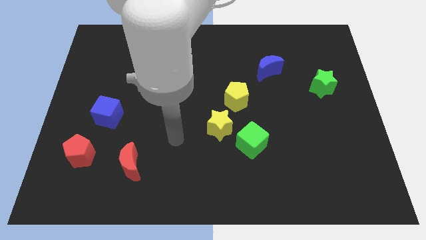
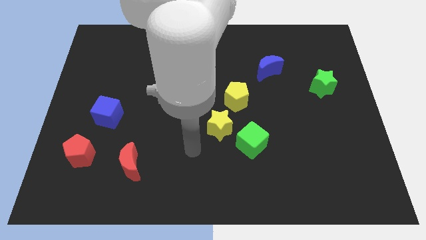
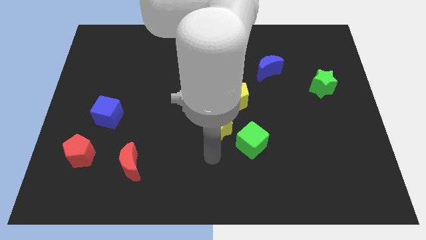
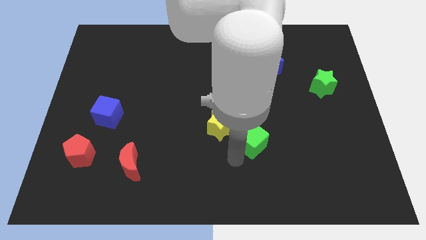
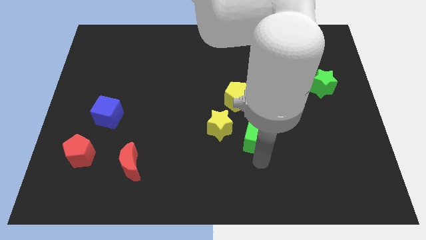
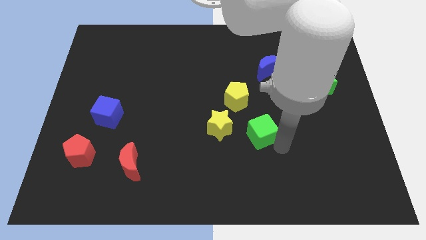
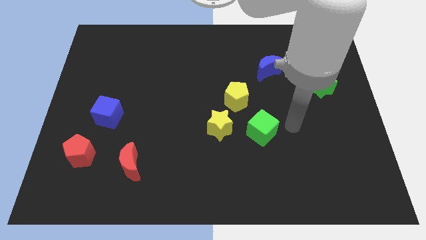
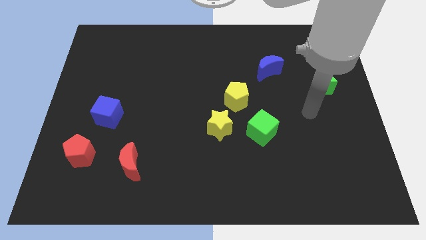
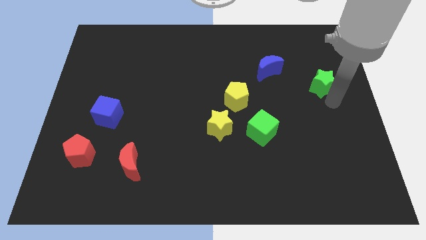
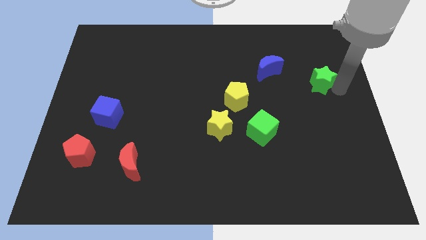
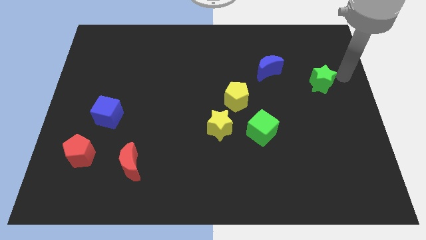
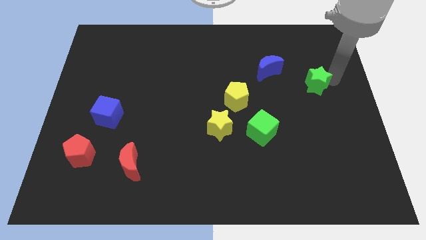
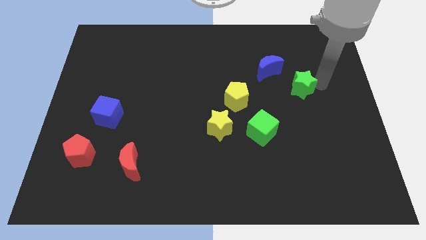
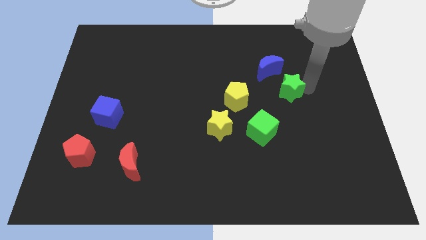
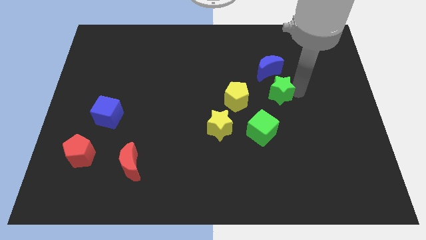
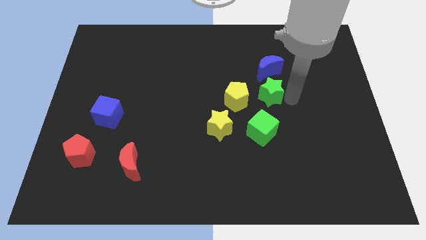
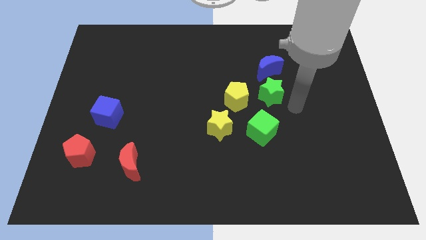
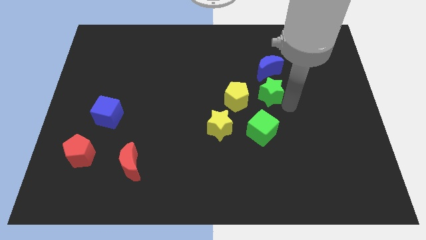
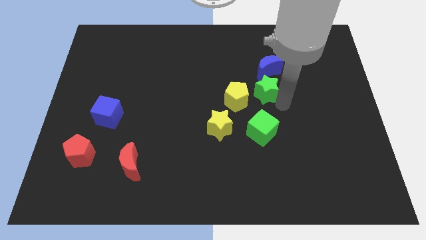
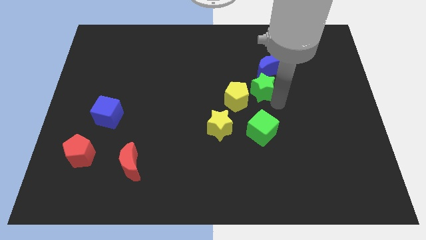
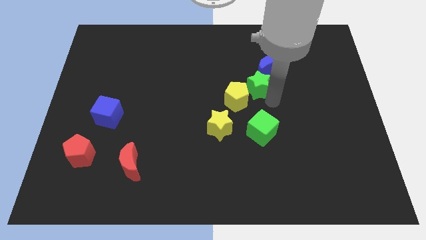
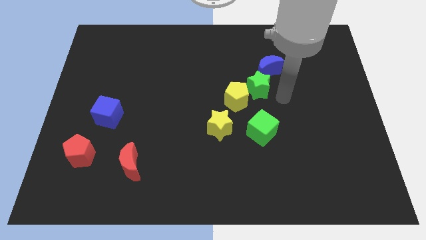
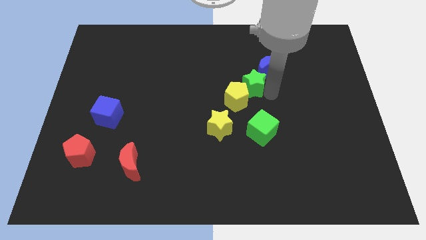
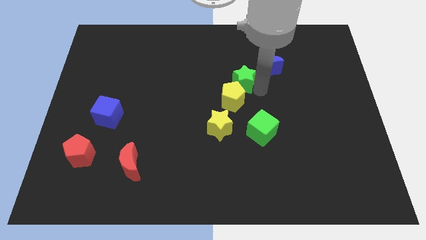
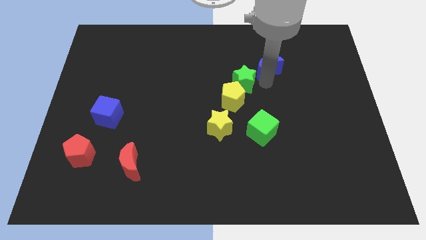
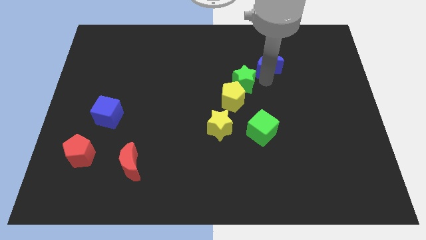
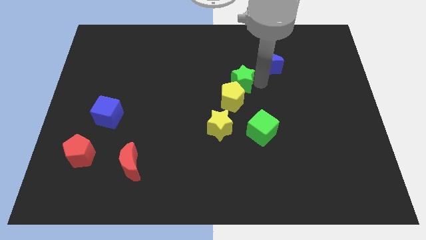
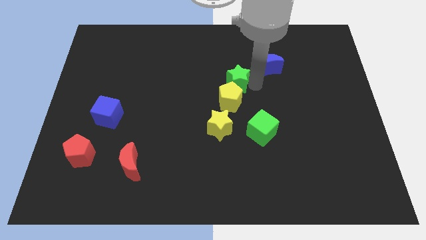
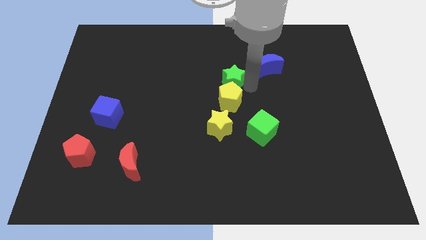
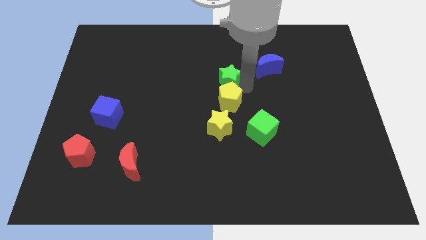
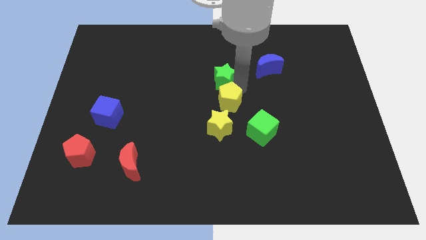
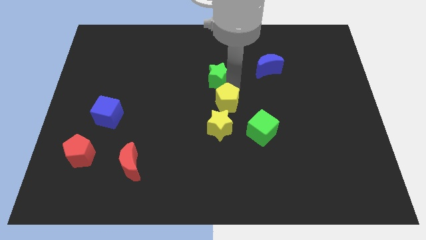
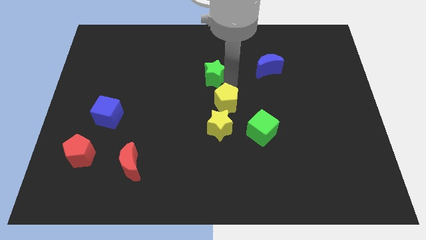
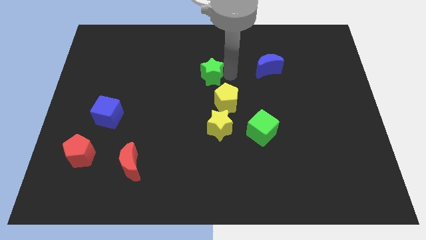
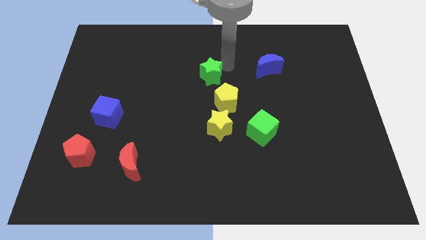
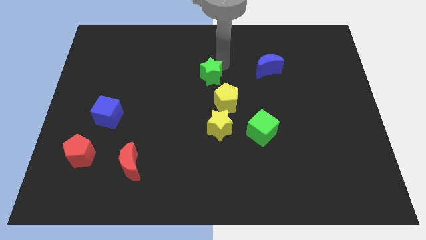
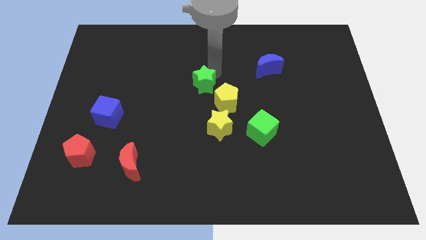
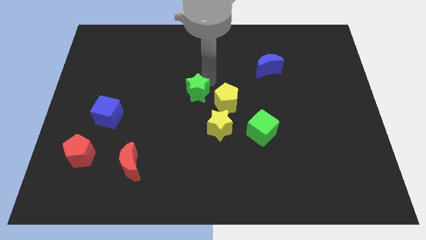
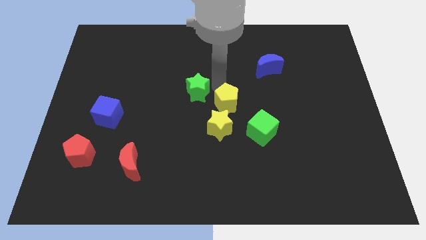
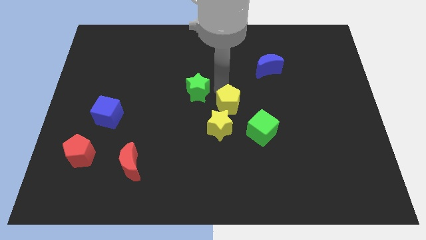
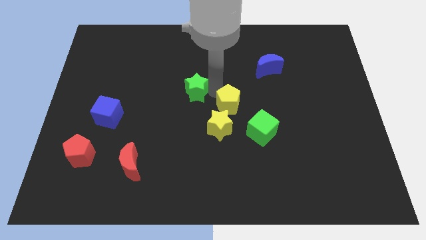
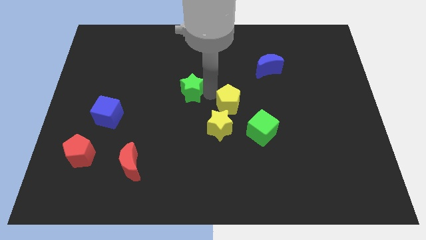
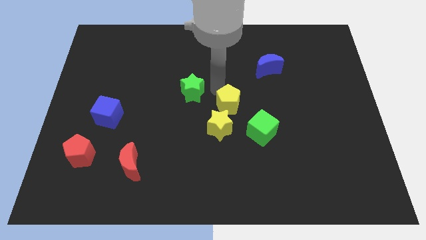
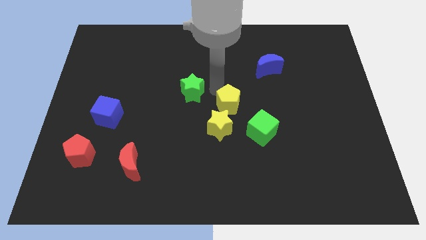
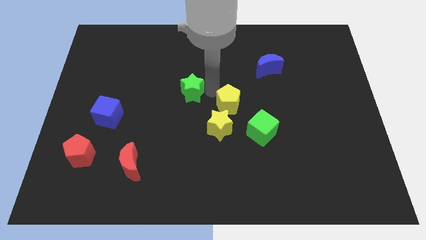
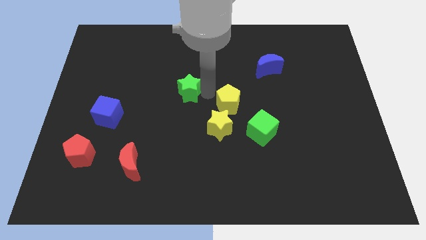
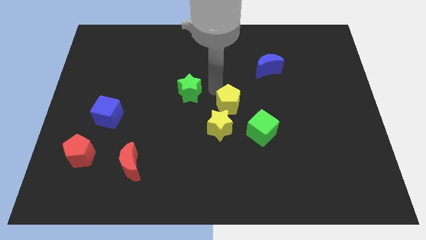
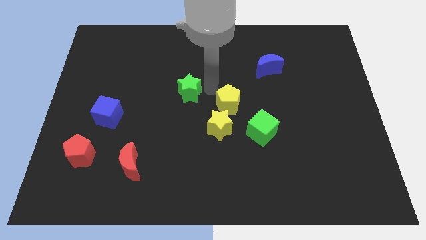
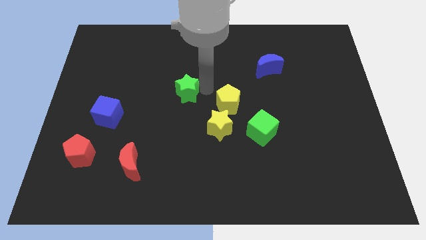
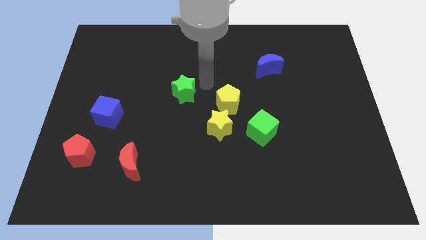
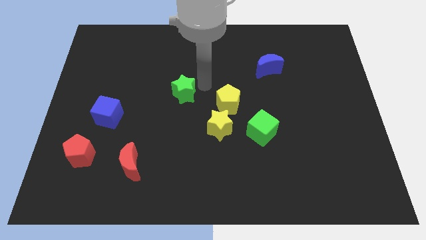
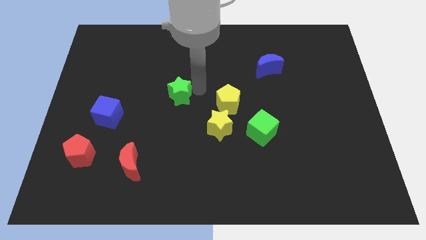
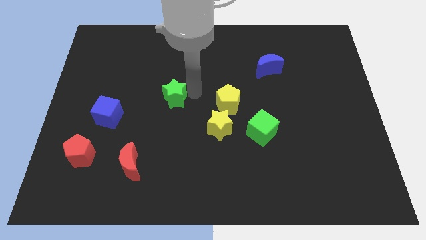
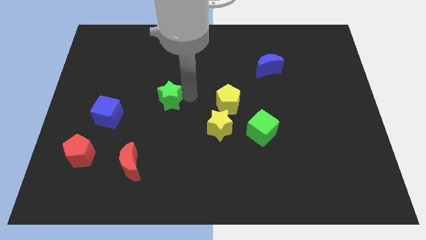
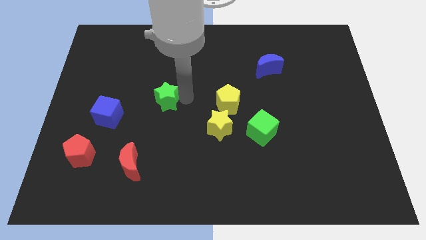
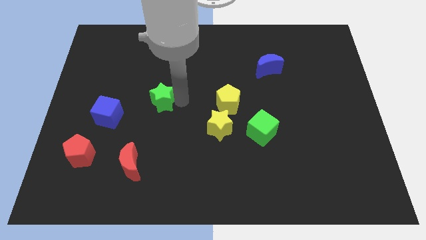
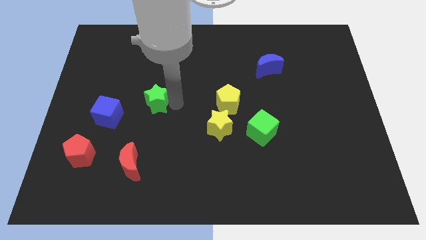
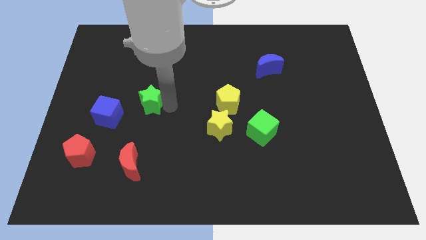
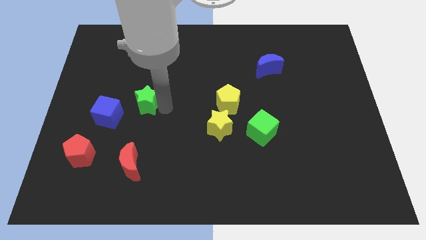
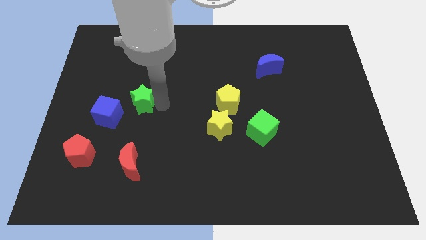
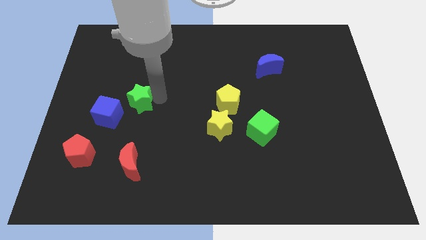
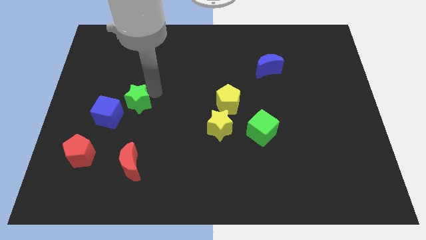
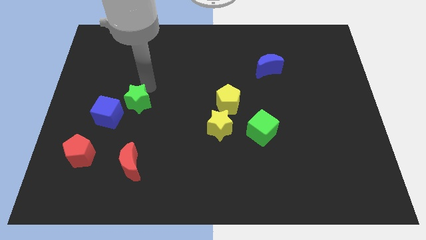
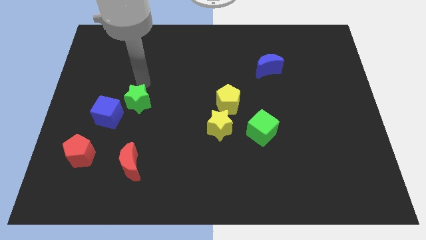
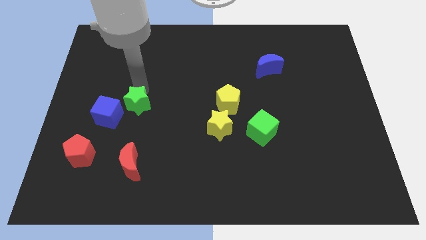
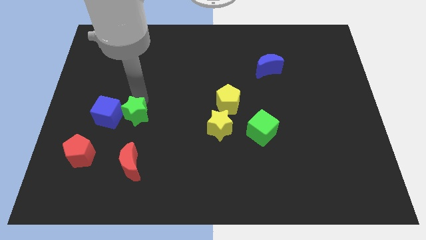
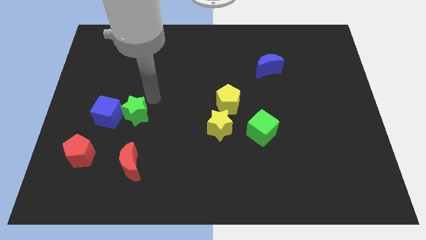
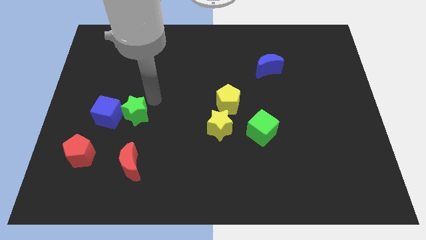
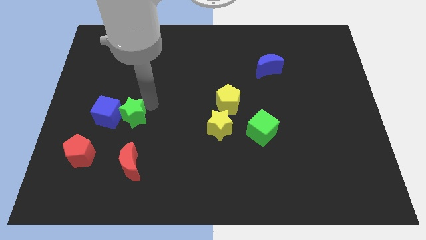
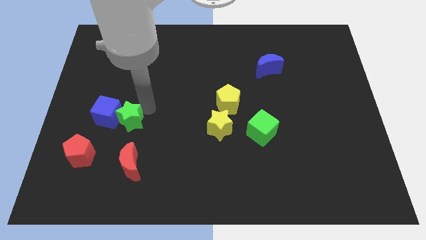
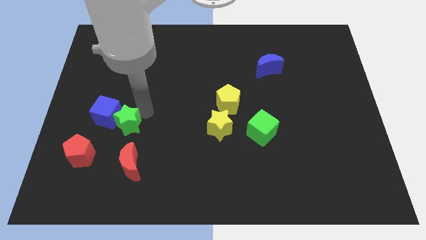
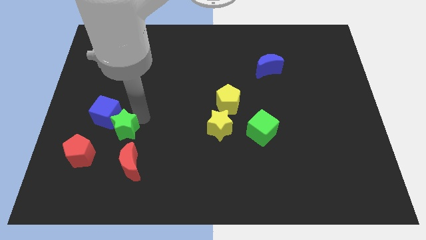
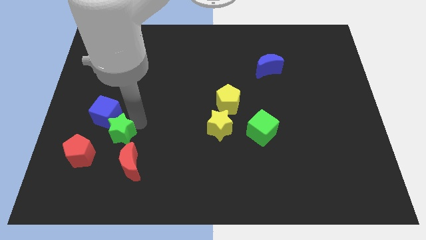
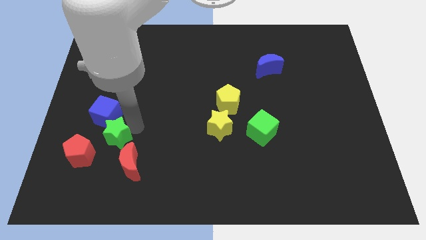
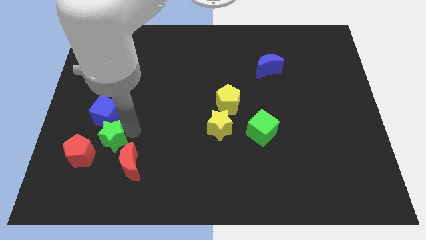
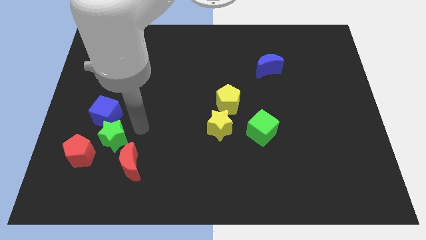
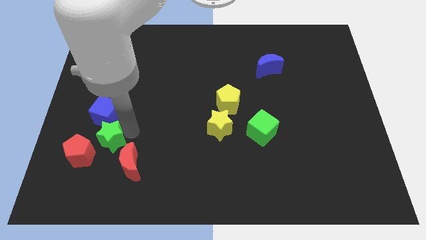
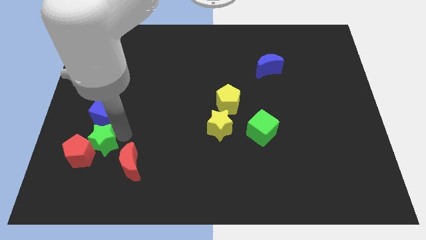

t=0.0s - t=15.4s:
slide the green star to the red pentagon
